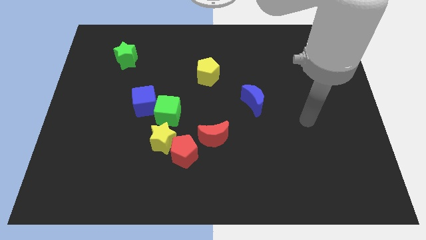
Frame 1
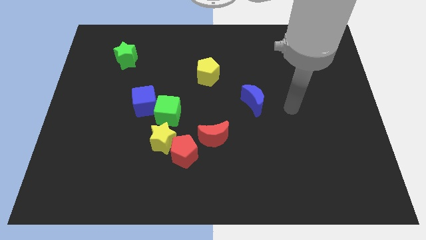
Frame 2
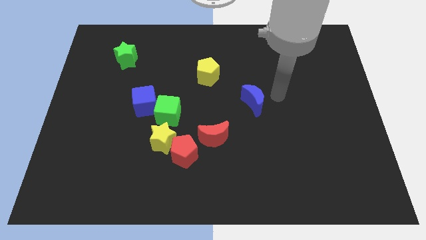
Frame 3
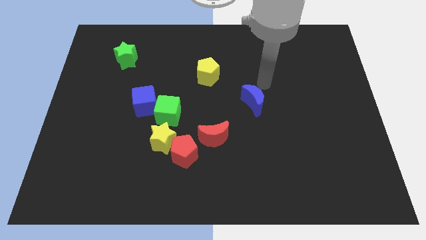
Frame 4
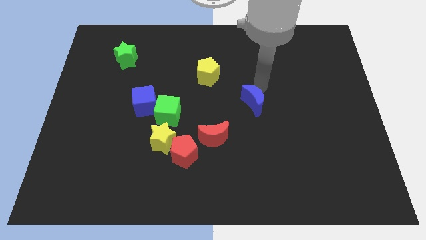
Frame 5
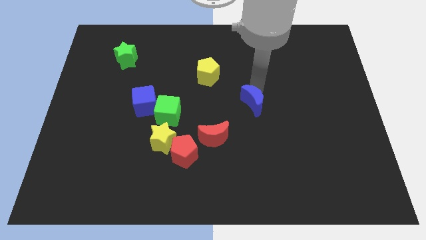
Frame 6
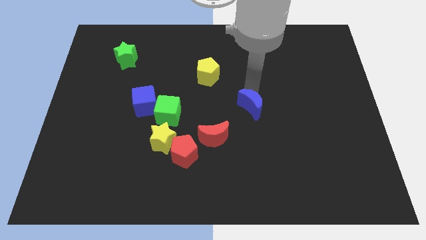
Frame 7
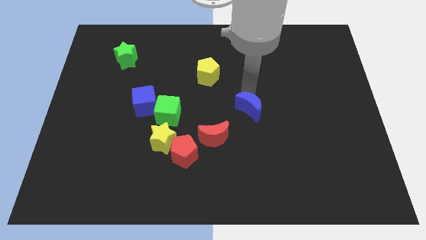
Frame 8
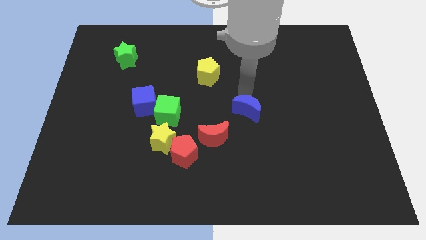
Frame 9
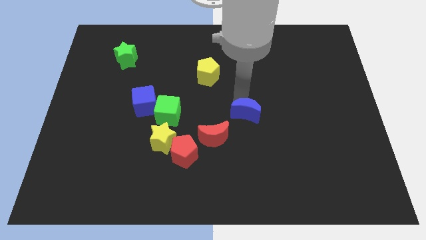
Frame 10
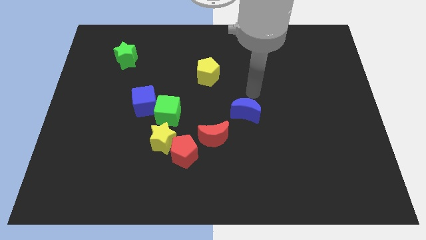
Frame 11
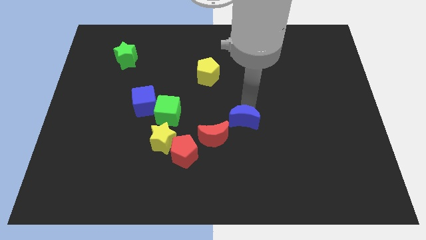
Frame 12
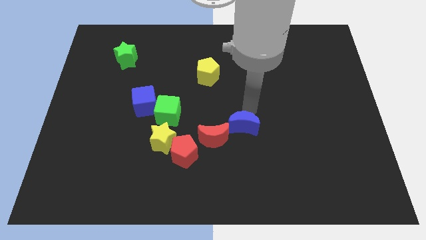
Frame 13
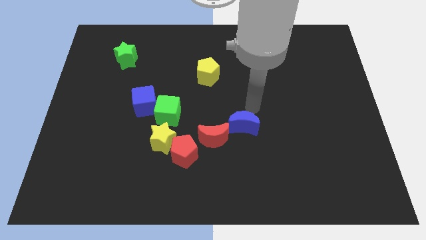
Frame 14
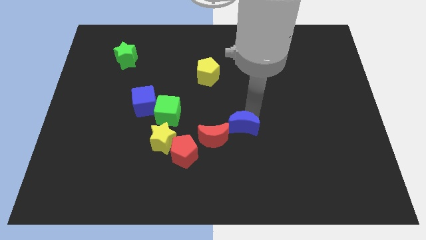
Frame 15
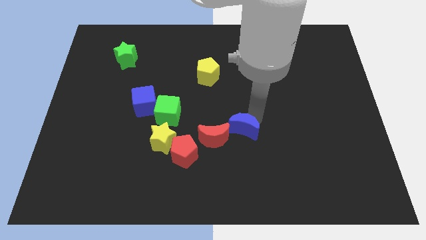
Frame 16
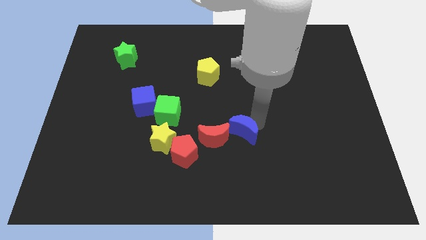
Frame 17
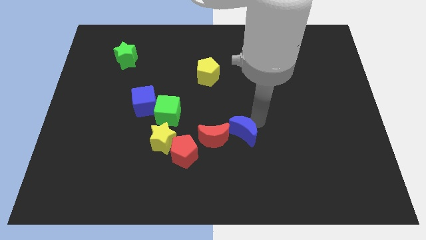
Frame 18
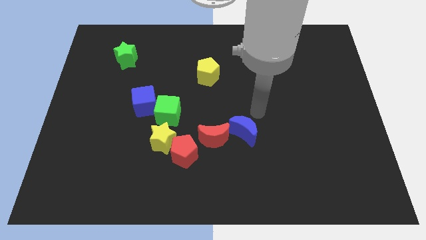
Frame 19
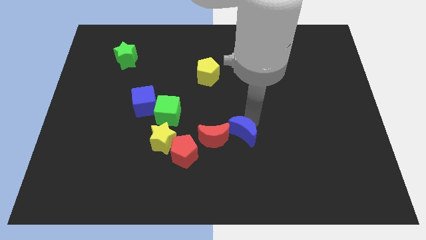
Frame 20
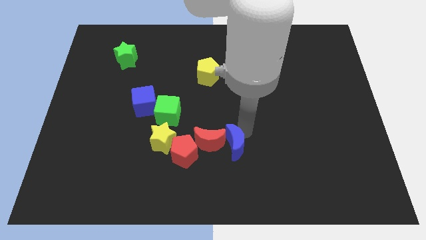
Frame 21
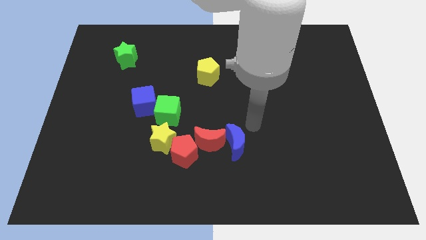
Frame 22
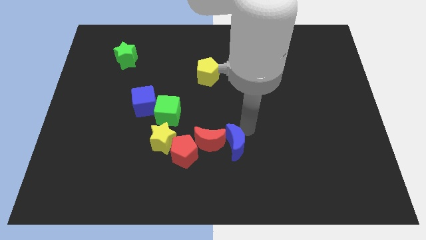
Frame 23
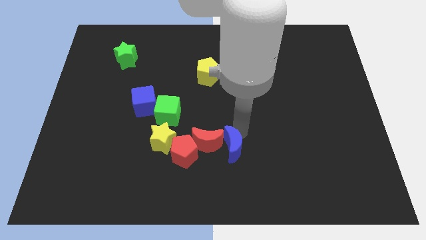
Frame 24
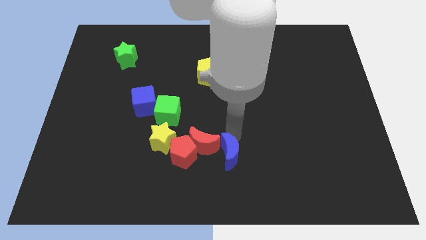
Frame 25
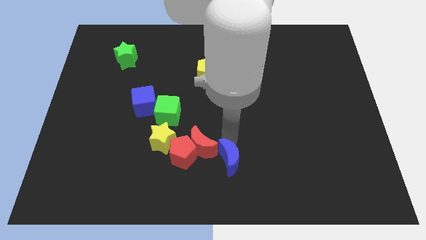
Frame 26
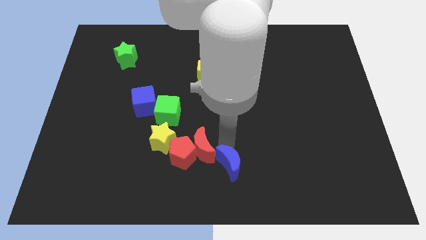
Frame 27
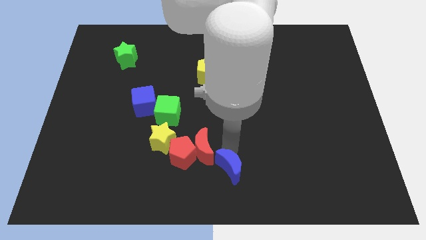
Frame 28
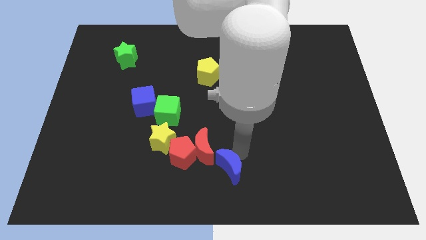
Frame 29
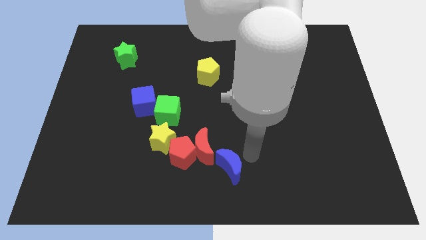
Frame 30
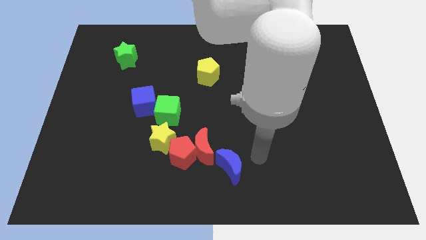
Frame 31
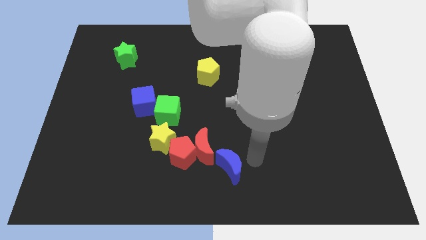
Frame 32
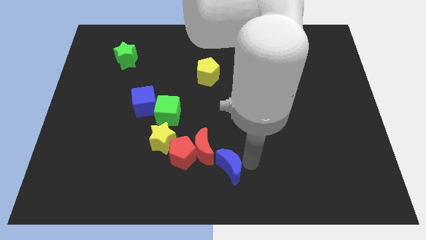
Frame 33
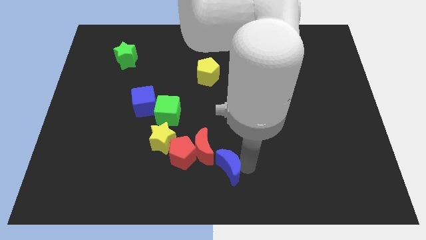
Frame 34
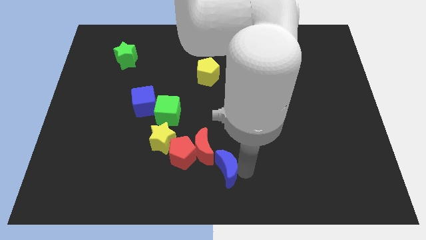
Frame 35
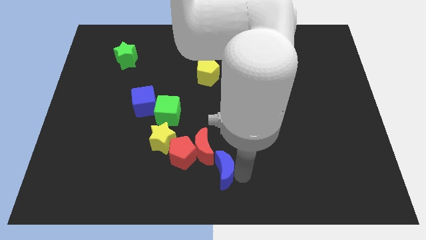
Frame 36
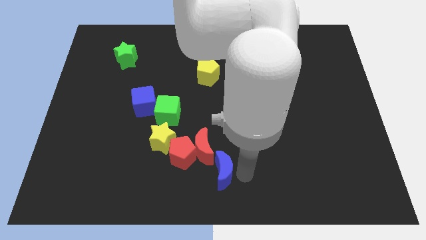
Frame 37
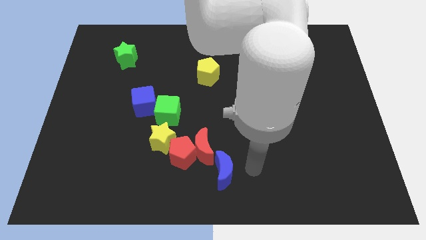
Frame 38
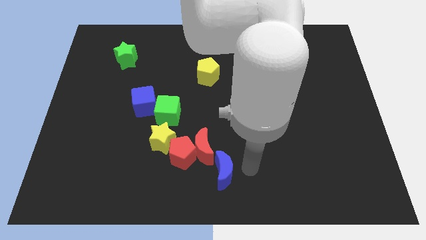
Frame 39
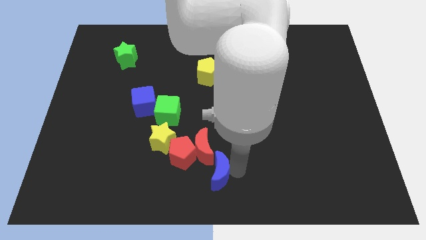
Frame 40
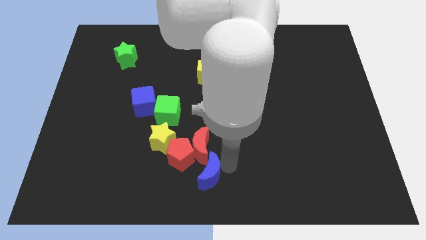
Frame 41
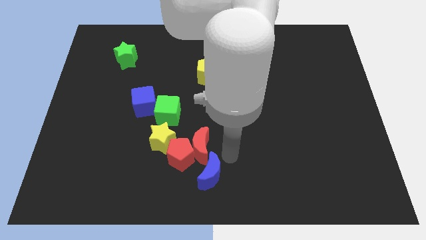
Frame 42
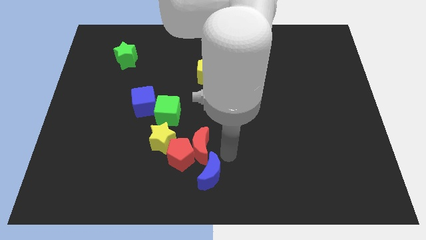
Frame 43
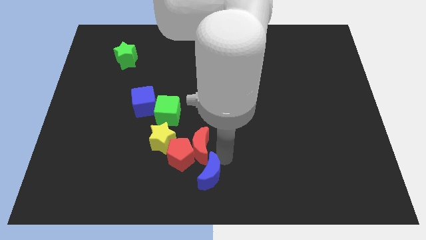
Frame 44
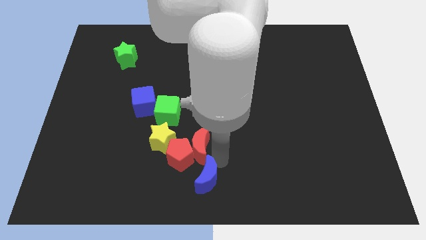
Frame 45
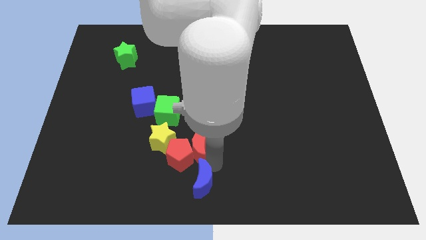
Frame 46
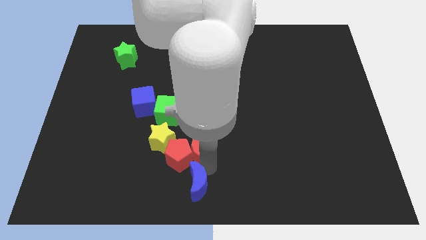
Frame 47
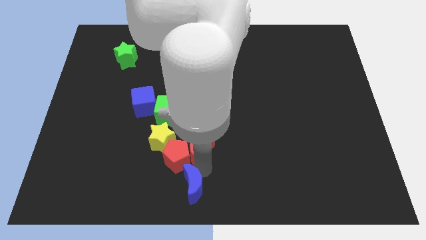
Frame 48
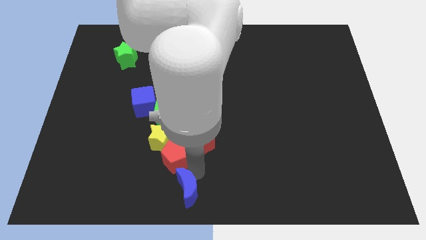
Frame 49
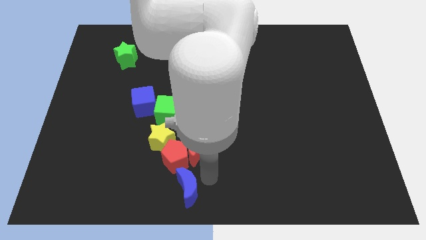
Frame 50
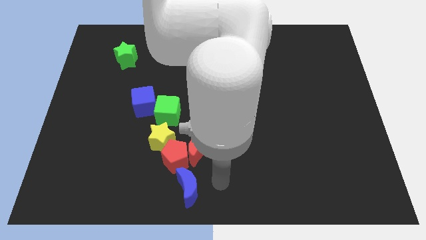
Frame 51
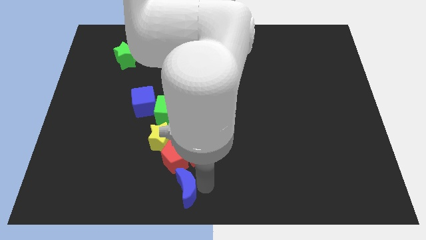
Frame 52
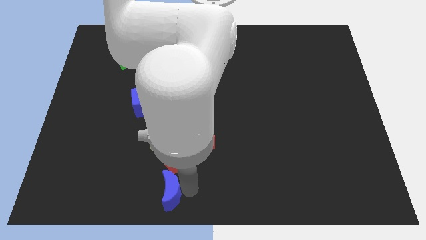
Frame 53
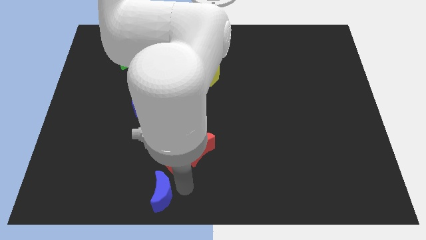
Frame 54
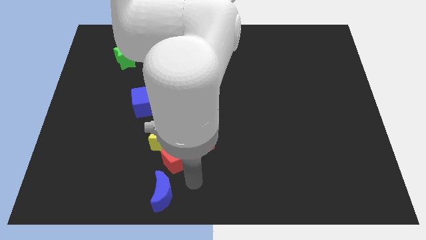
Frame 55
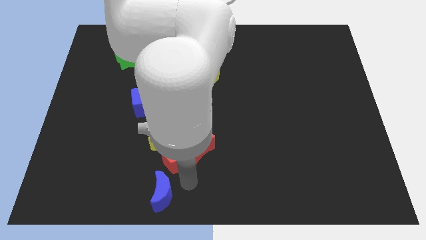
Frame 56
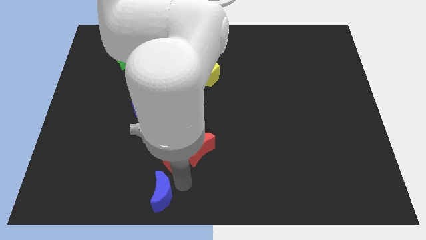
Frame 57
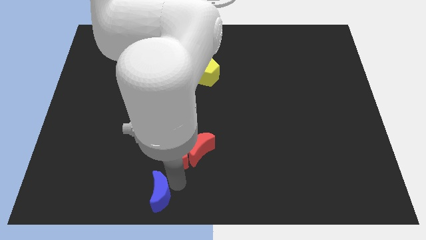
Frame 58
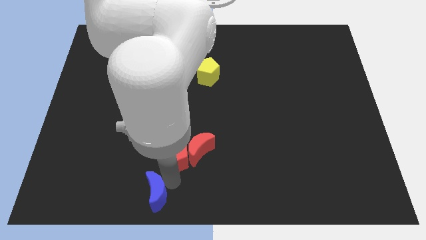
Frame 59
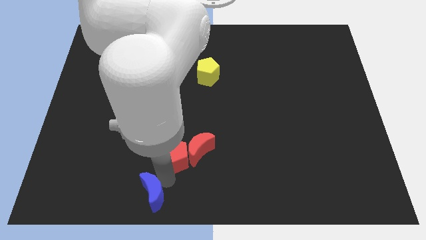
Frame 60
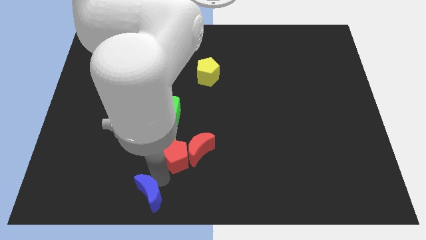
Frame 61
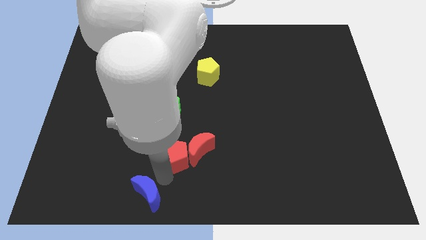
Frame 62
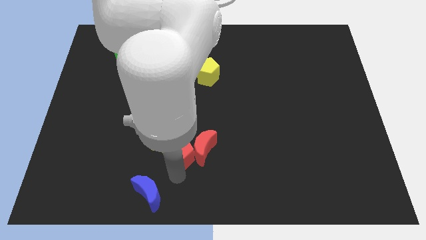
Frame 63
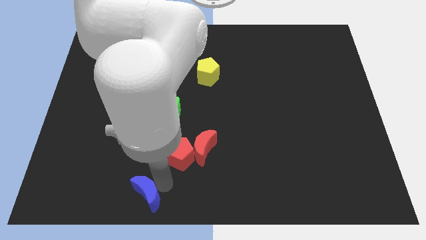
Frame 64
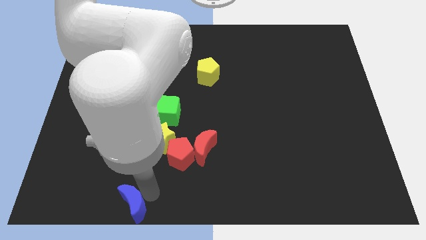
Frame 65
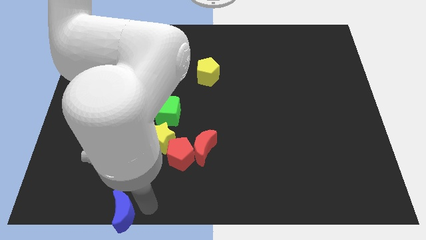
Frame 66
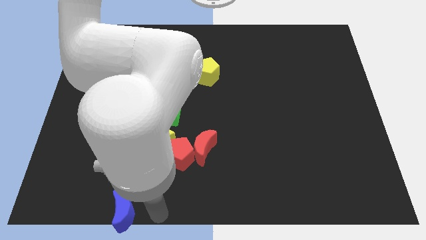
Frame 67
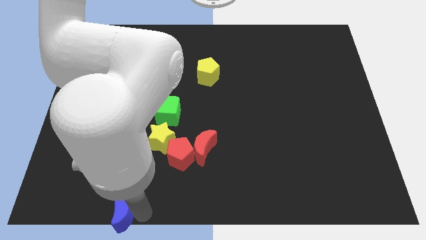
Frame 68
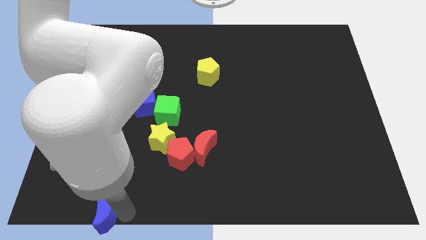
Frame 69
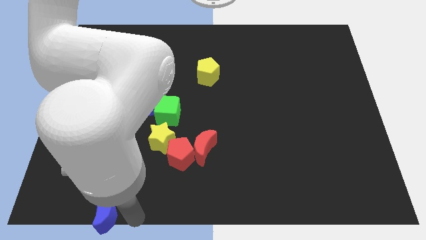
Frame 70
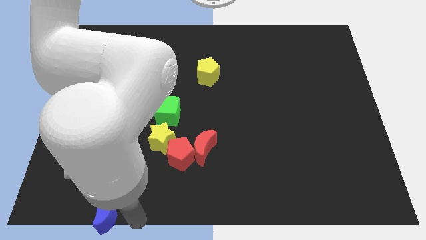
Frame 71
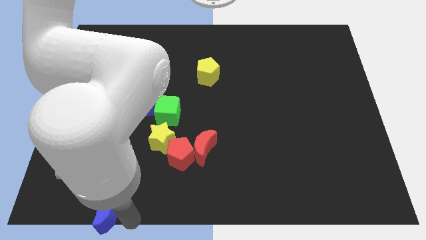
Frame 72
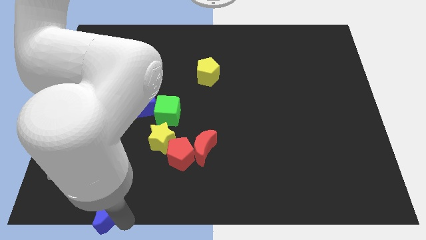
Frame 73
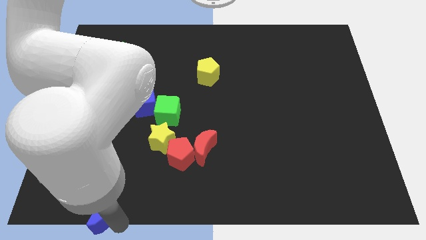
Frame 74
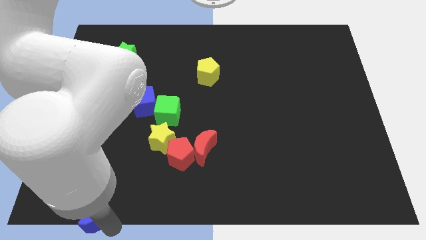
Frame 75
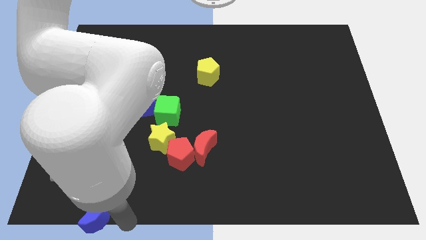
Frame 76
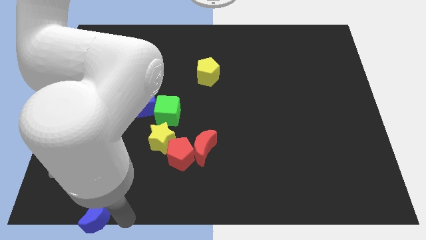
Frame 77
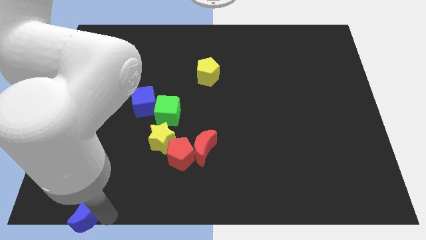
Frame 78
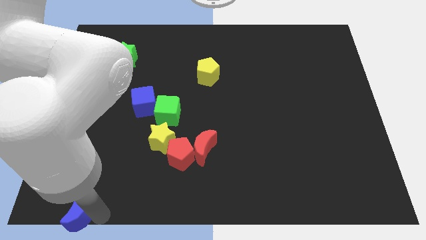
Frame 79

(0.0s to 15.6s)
move the blue moon to the bottom left
